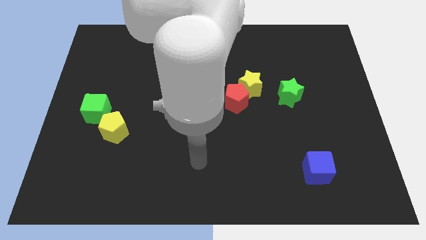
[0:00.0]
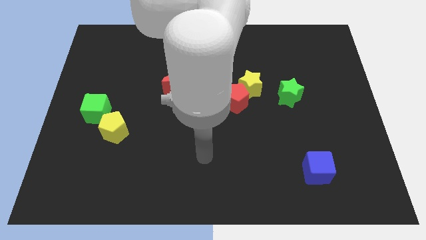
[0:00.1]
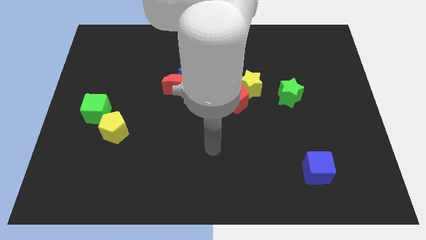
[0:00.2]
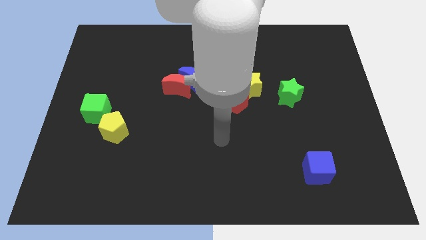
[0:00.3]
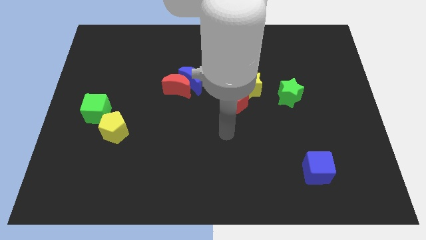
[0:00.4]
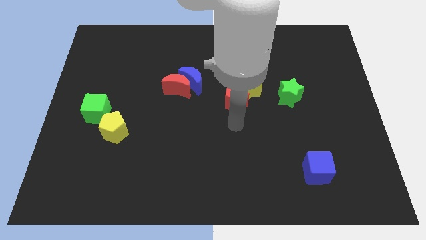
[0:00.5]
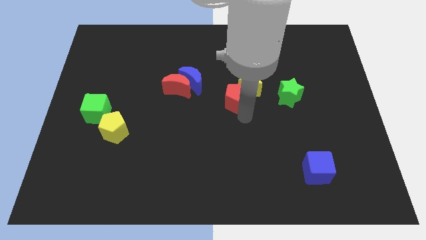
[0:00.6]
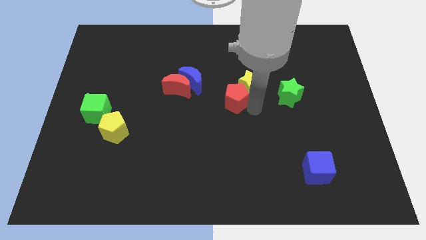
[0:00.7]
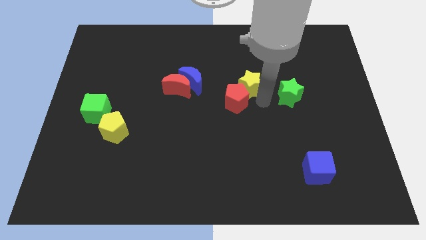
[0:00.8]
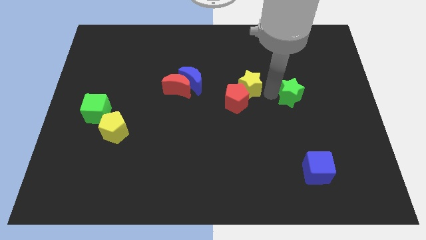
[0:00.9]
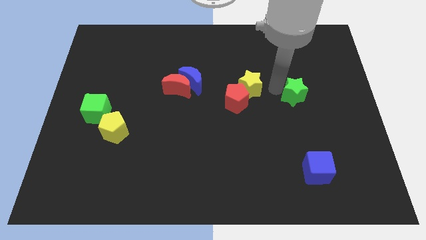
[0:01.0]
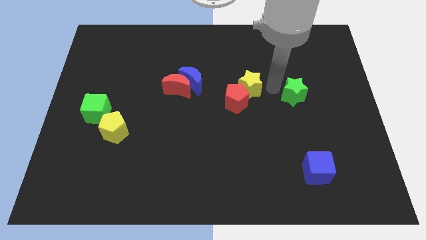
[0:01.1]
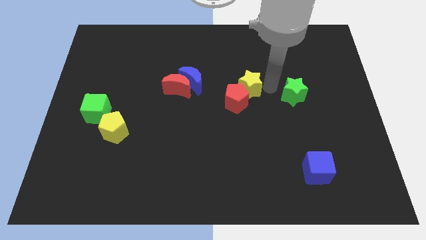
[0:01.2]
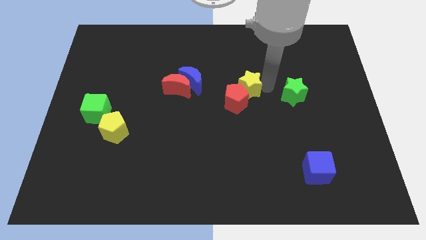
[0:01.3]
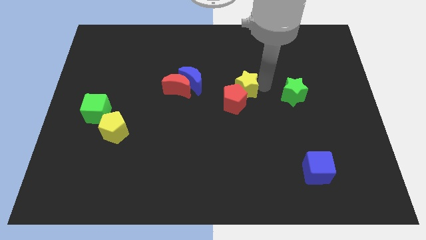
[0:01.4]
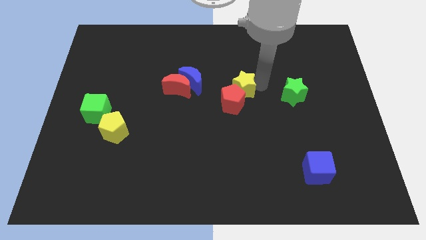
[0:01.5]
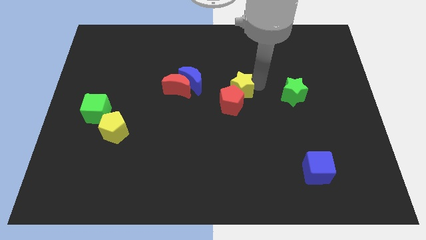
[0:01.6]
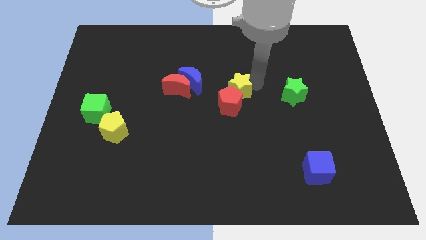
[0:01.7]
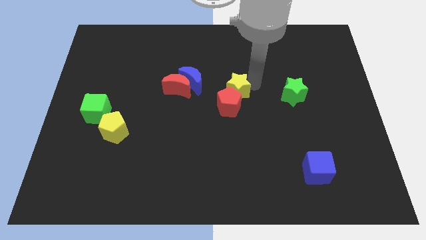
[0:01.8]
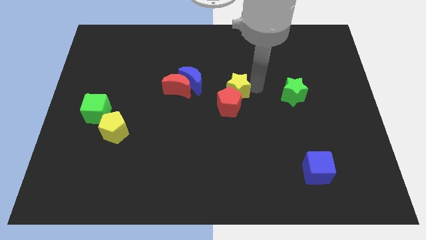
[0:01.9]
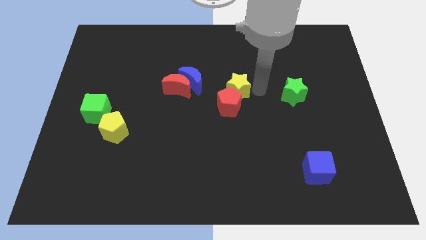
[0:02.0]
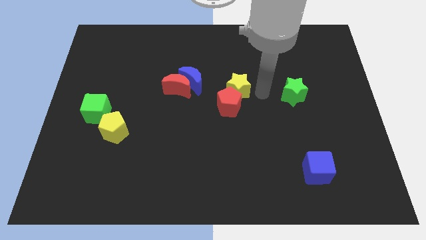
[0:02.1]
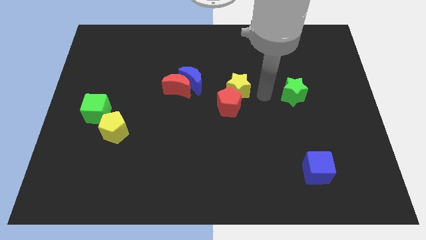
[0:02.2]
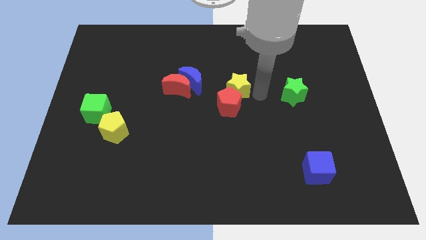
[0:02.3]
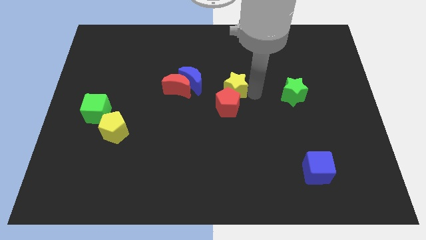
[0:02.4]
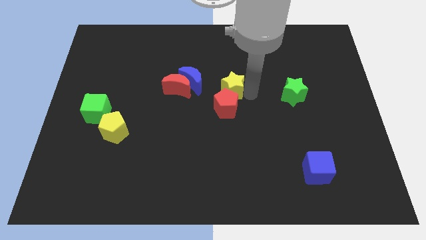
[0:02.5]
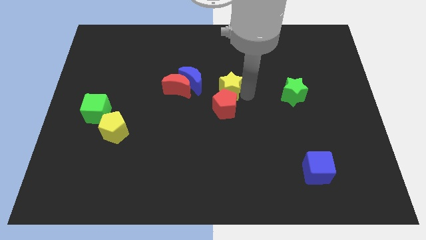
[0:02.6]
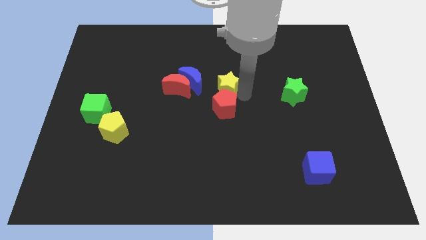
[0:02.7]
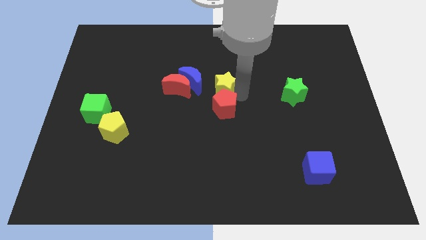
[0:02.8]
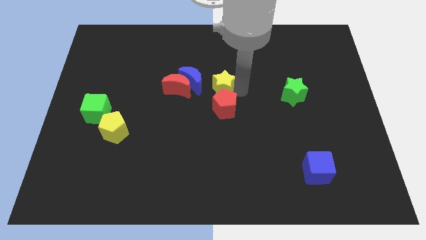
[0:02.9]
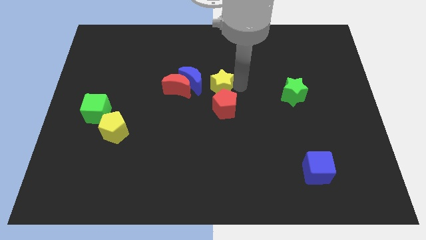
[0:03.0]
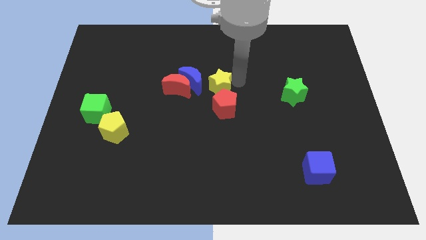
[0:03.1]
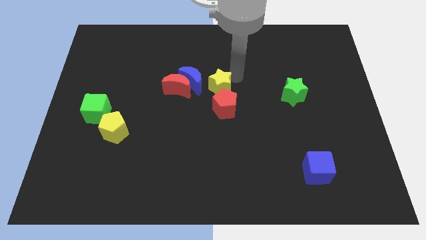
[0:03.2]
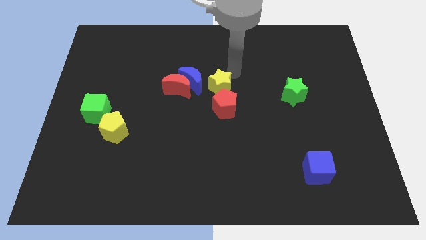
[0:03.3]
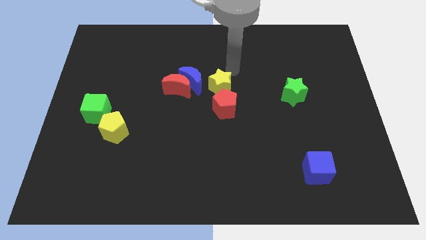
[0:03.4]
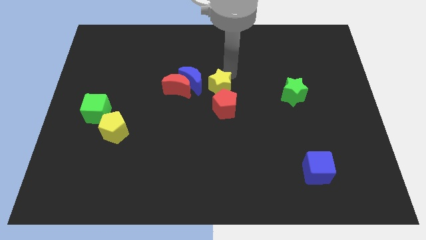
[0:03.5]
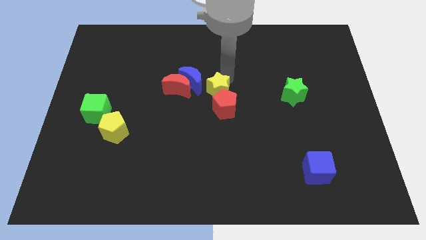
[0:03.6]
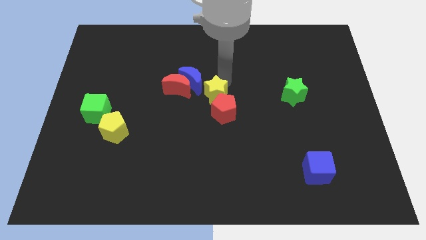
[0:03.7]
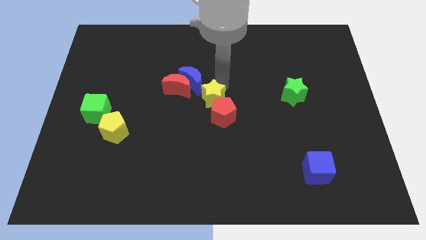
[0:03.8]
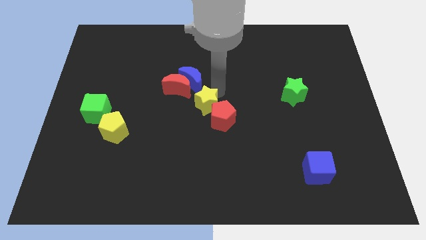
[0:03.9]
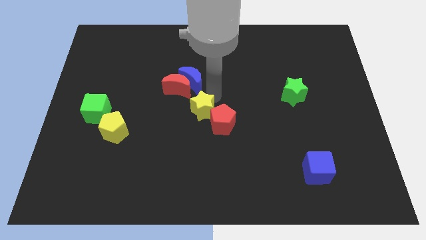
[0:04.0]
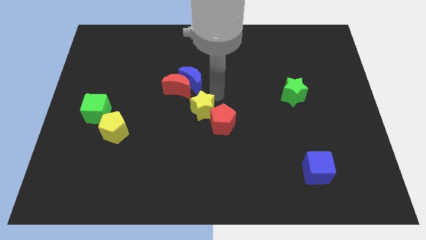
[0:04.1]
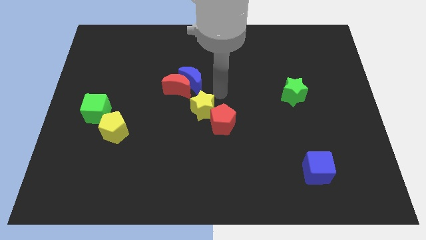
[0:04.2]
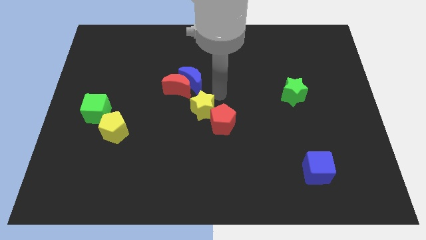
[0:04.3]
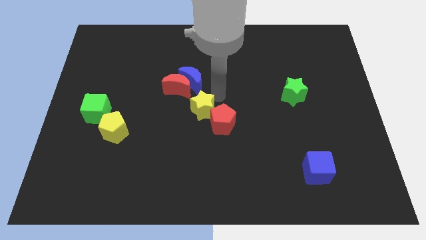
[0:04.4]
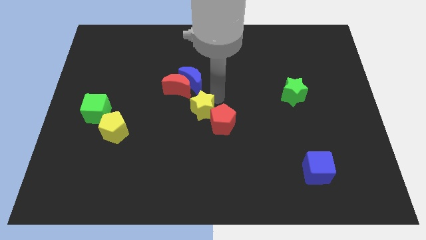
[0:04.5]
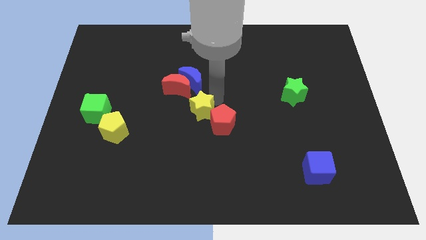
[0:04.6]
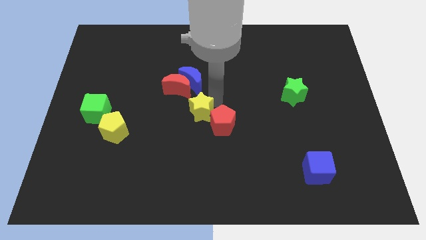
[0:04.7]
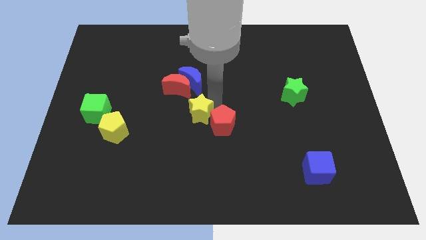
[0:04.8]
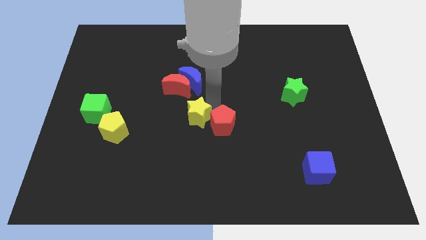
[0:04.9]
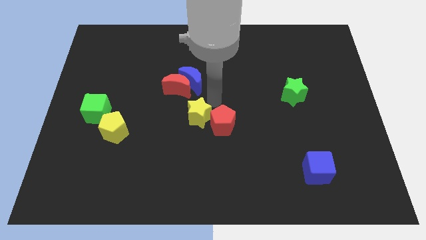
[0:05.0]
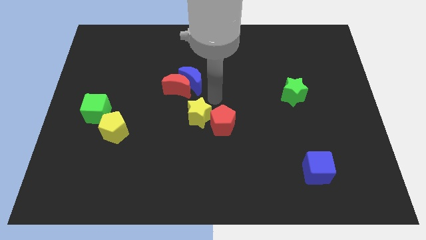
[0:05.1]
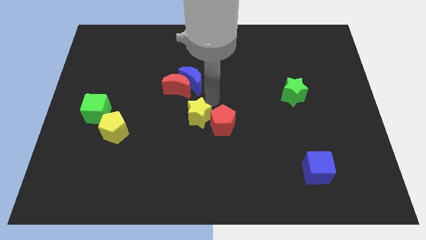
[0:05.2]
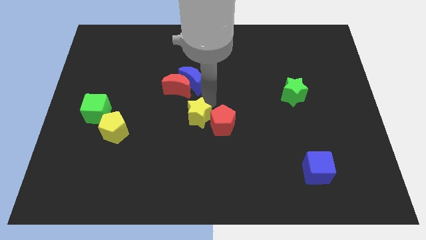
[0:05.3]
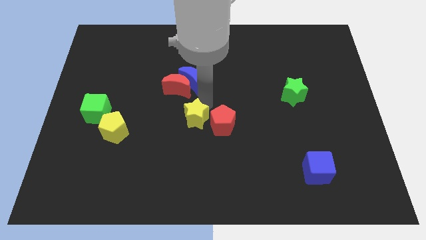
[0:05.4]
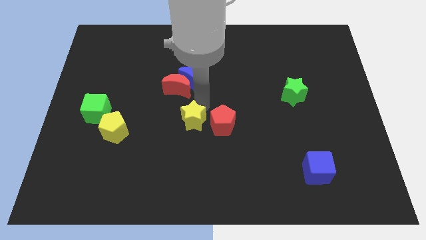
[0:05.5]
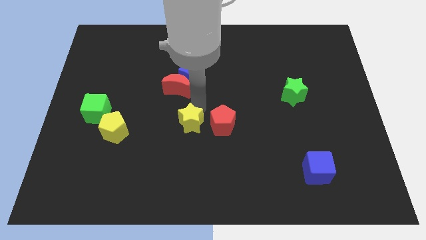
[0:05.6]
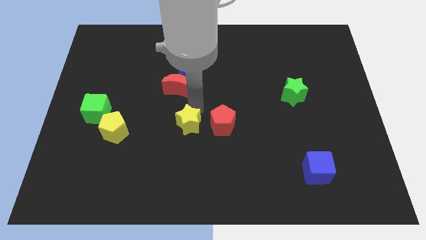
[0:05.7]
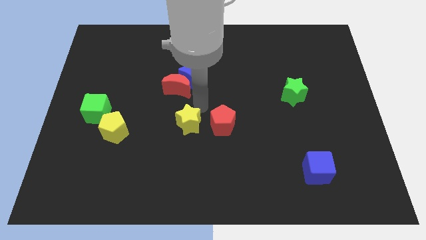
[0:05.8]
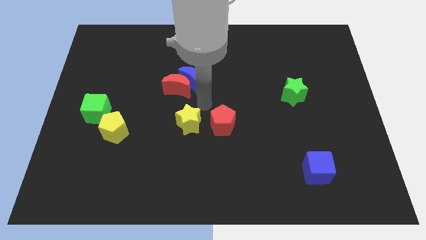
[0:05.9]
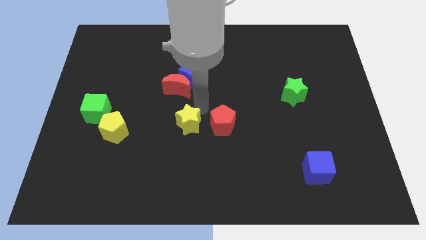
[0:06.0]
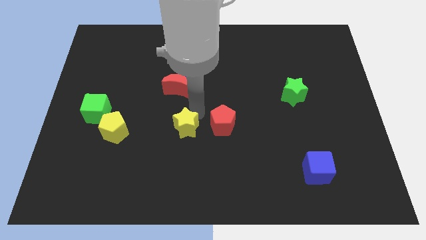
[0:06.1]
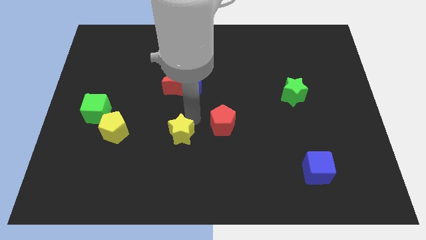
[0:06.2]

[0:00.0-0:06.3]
push the yellow star downwards and then to the left

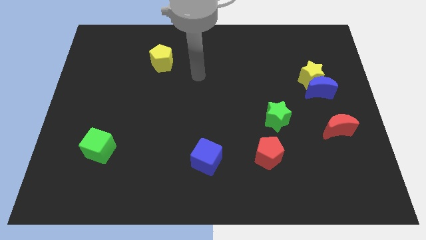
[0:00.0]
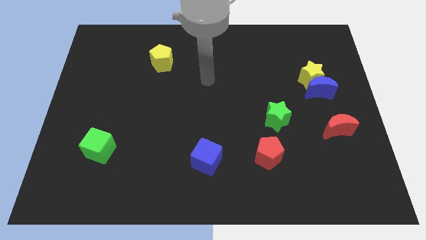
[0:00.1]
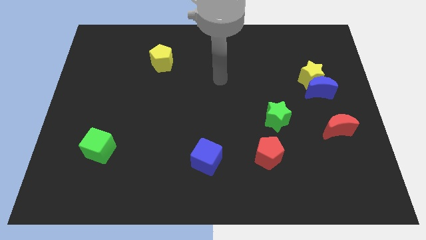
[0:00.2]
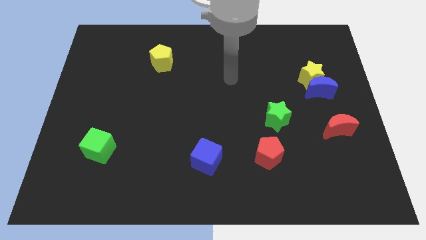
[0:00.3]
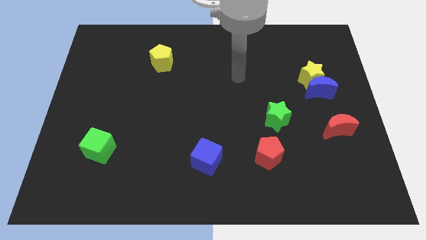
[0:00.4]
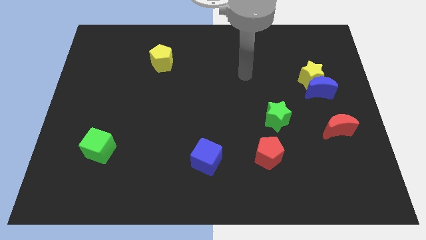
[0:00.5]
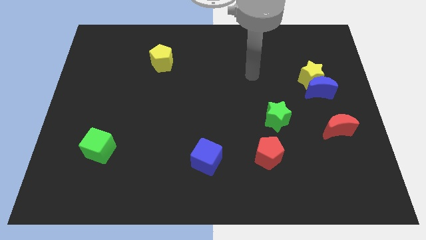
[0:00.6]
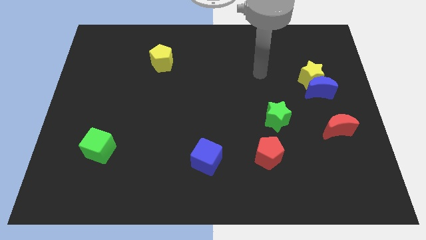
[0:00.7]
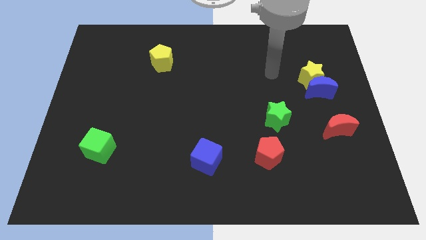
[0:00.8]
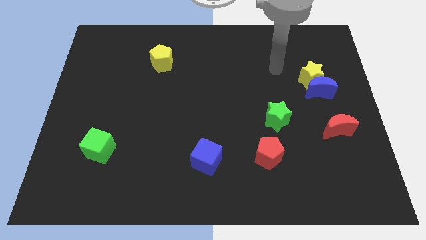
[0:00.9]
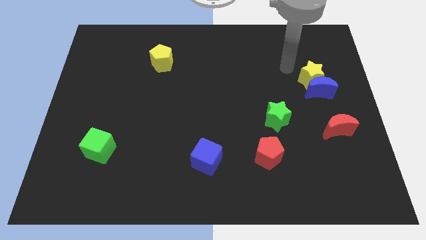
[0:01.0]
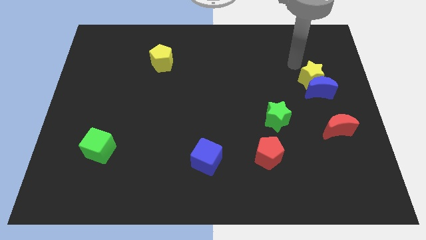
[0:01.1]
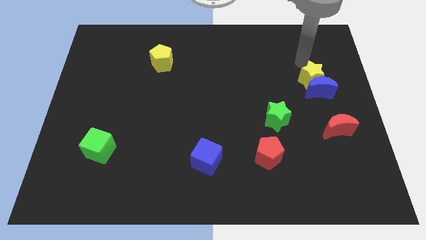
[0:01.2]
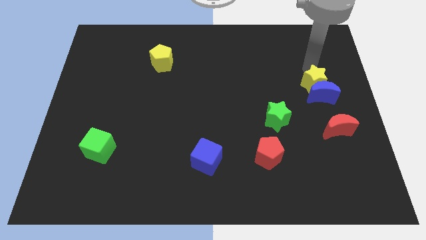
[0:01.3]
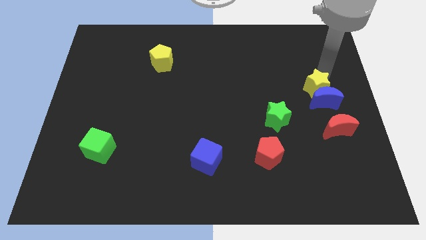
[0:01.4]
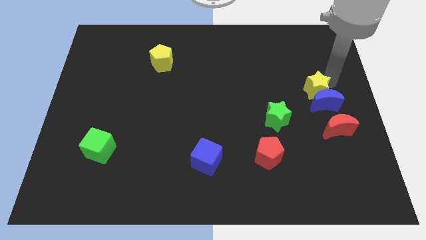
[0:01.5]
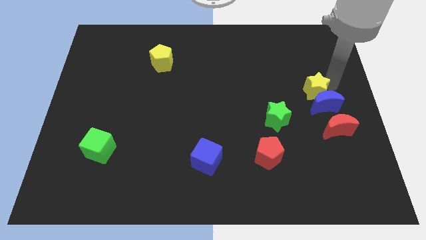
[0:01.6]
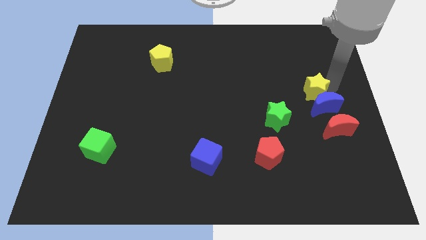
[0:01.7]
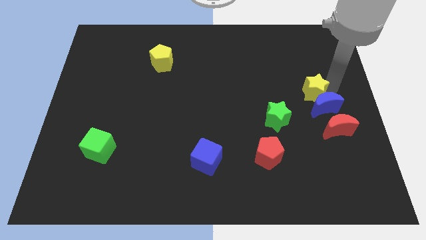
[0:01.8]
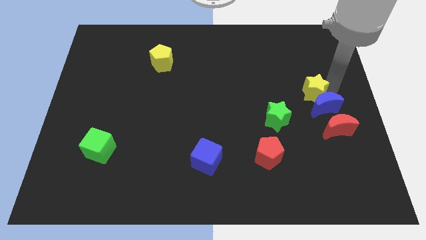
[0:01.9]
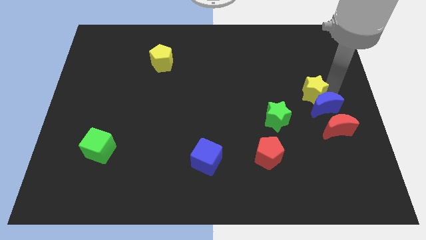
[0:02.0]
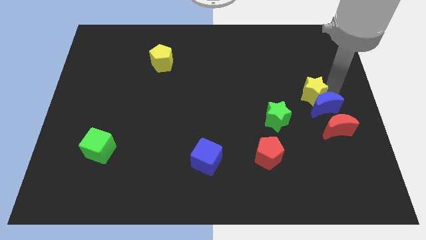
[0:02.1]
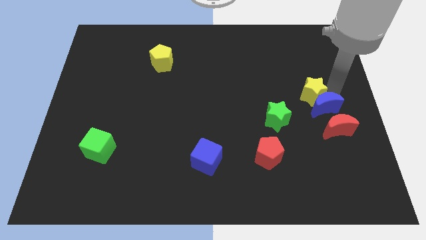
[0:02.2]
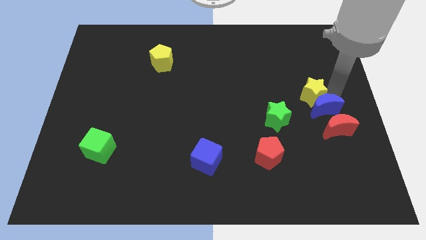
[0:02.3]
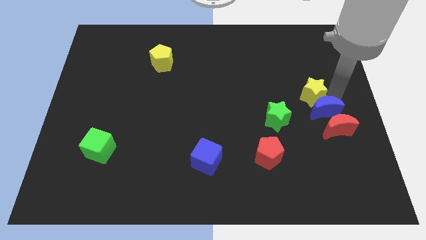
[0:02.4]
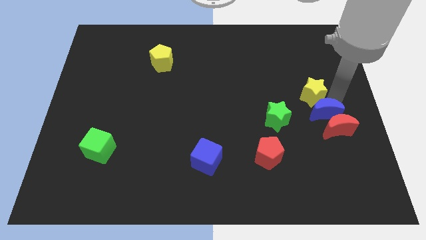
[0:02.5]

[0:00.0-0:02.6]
slightly slide the blue moon down
